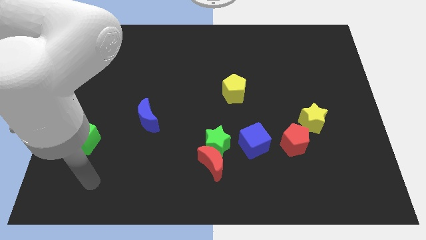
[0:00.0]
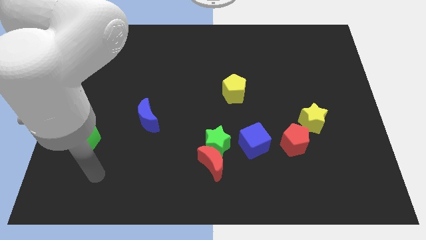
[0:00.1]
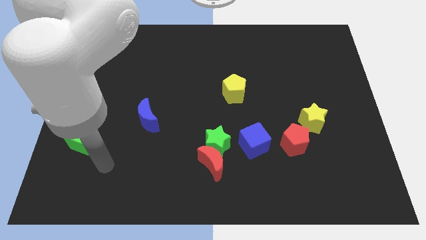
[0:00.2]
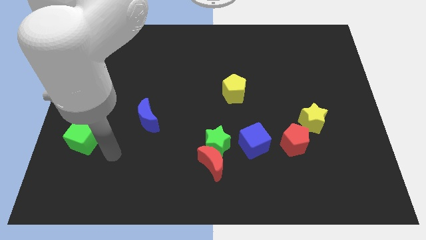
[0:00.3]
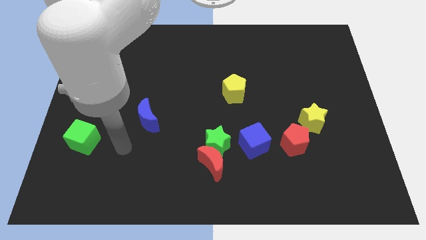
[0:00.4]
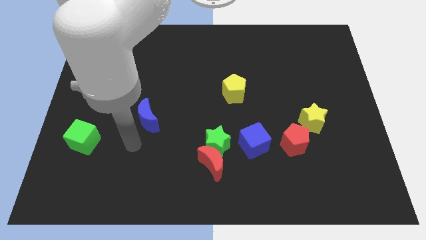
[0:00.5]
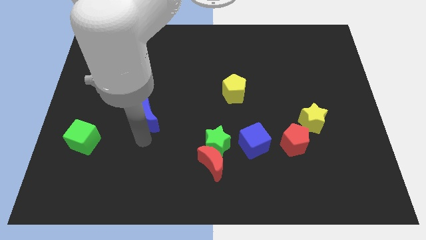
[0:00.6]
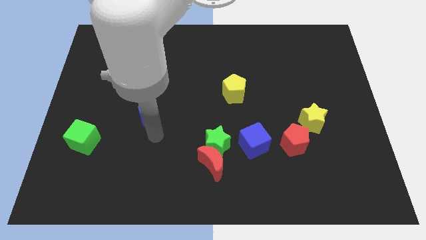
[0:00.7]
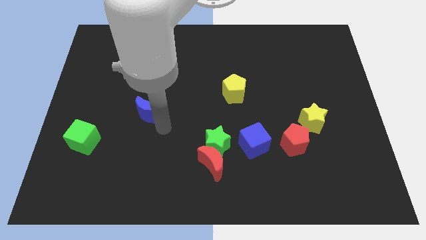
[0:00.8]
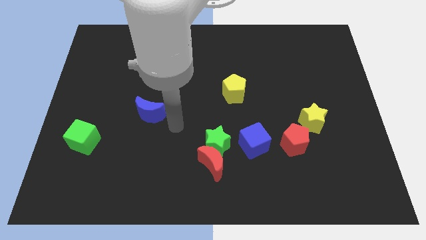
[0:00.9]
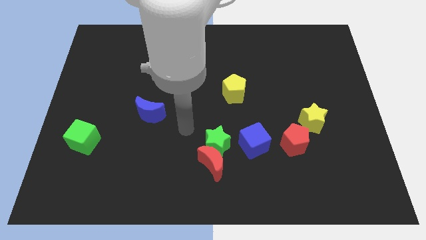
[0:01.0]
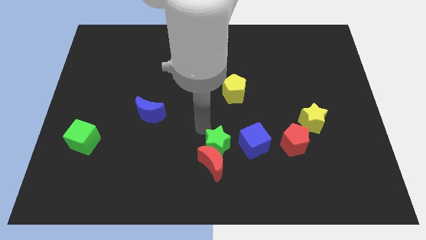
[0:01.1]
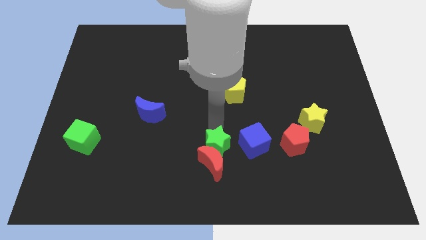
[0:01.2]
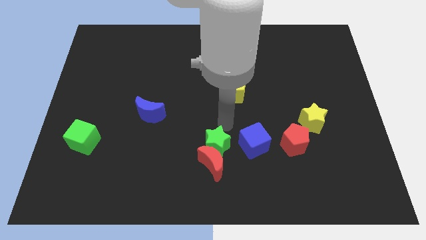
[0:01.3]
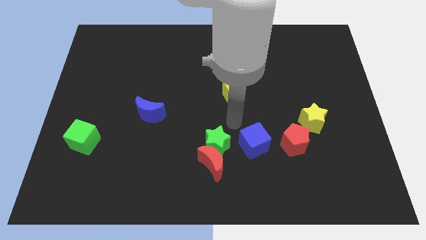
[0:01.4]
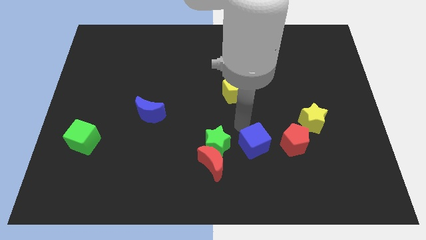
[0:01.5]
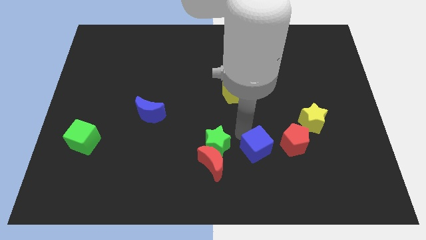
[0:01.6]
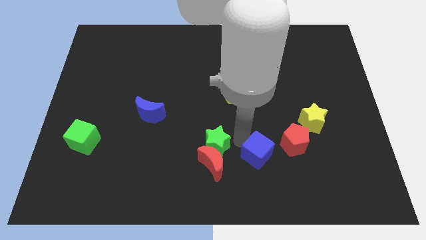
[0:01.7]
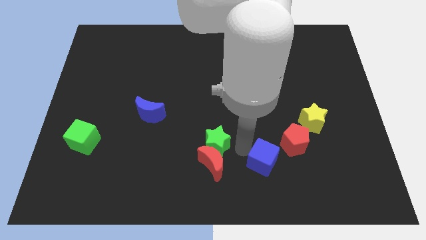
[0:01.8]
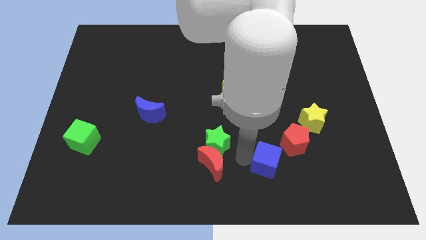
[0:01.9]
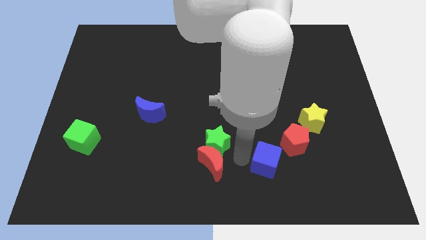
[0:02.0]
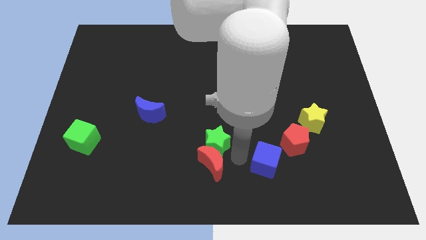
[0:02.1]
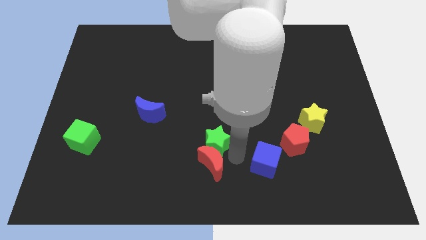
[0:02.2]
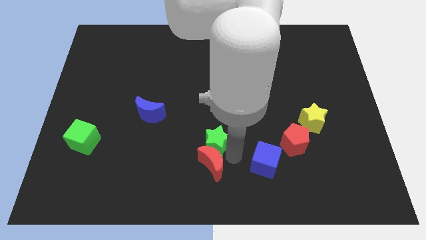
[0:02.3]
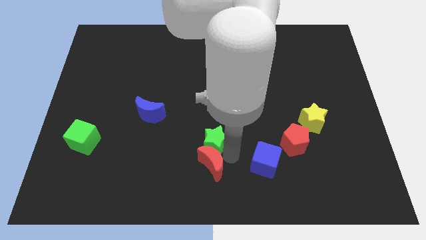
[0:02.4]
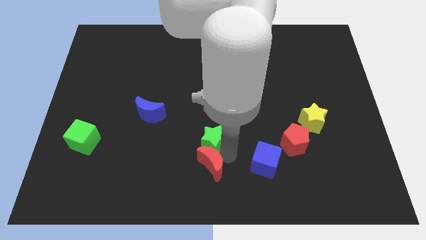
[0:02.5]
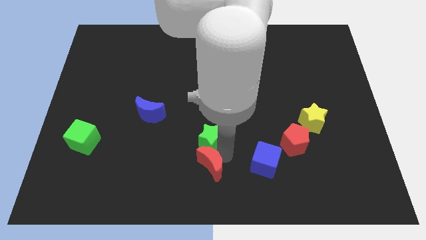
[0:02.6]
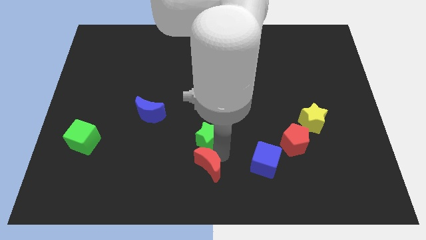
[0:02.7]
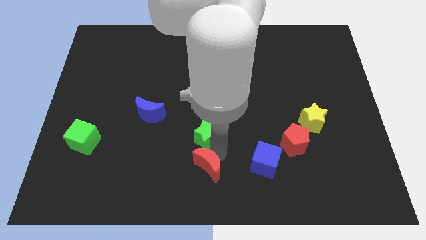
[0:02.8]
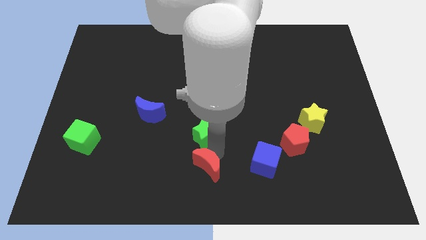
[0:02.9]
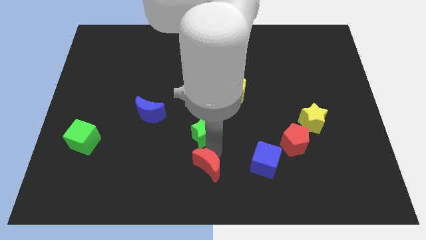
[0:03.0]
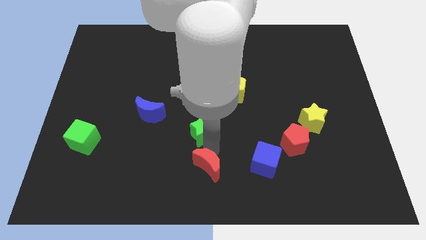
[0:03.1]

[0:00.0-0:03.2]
pull the green star apart from the red moon and blue cube
